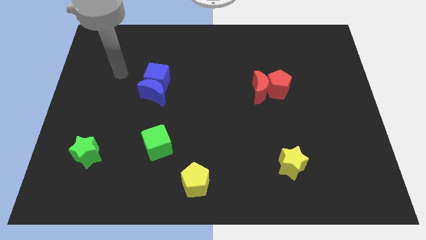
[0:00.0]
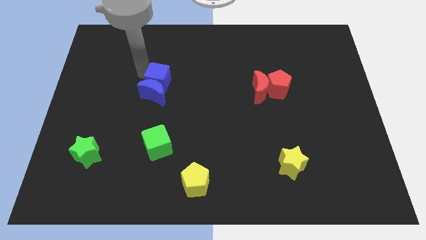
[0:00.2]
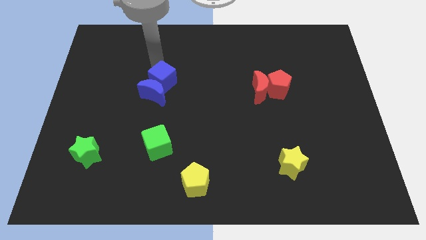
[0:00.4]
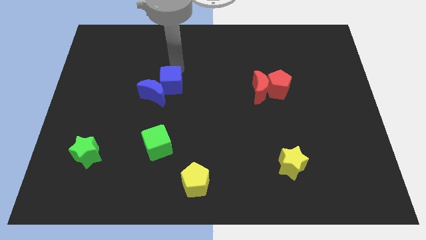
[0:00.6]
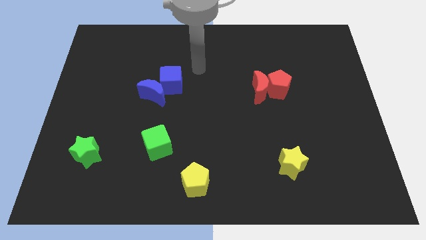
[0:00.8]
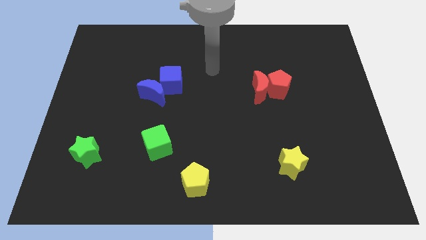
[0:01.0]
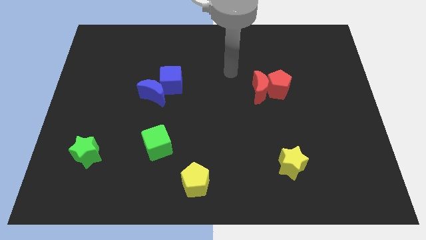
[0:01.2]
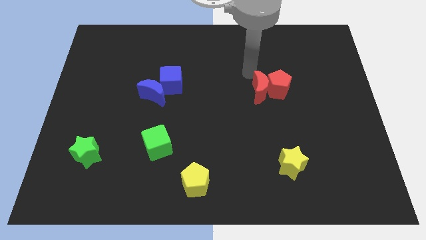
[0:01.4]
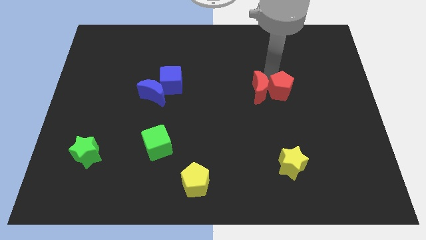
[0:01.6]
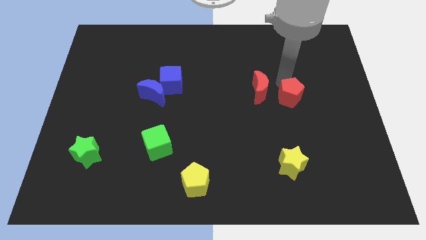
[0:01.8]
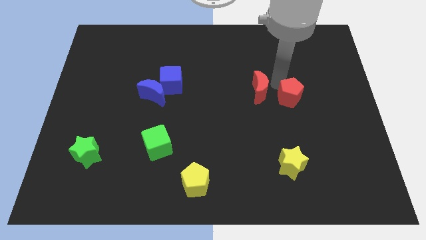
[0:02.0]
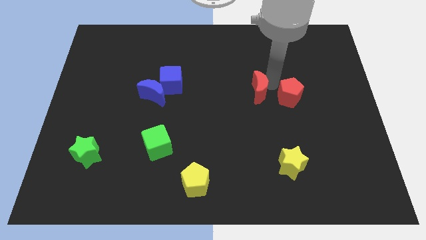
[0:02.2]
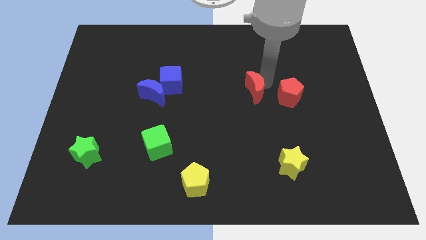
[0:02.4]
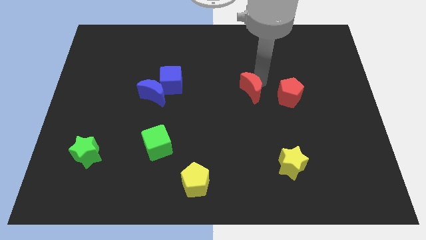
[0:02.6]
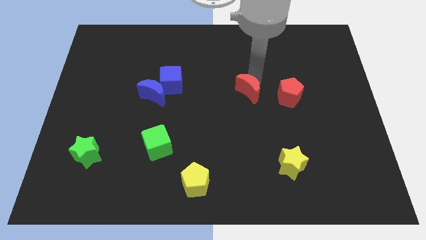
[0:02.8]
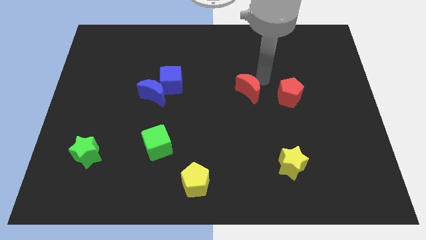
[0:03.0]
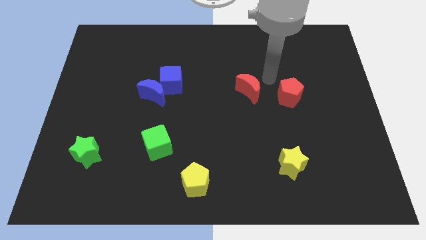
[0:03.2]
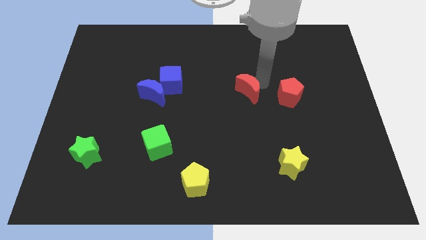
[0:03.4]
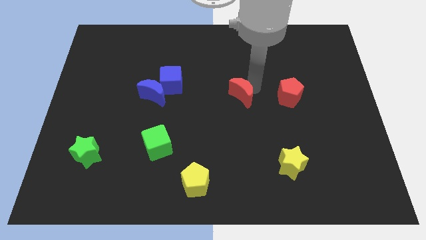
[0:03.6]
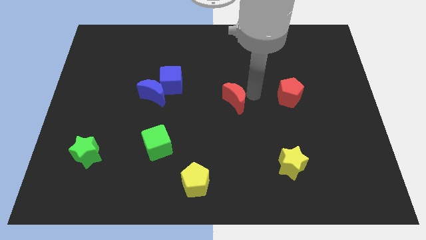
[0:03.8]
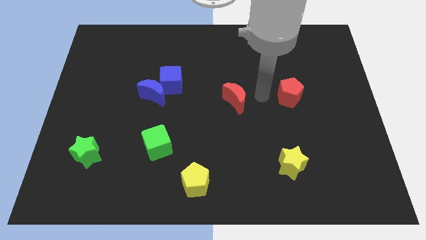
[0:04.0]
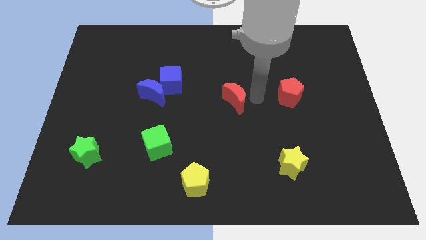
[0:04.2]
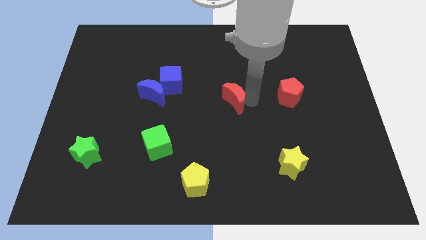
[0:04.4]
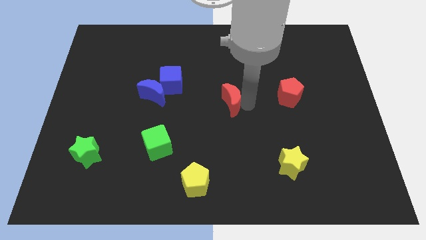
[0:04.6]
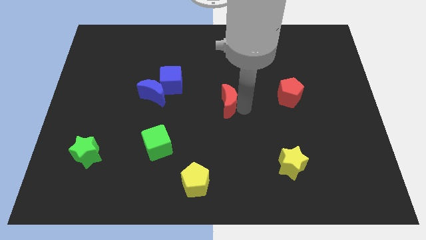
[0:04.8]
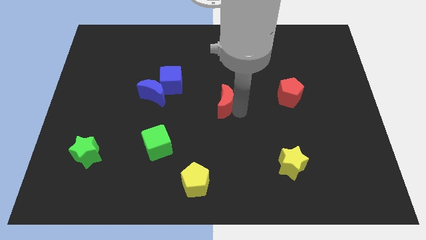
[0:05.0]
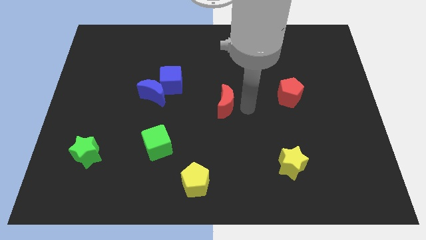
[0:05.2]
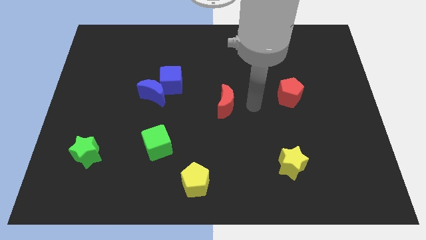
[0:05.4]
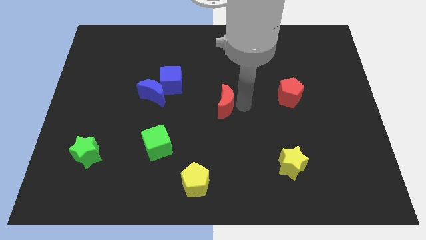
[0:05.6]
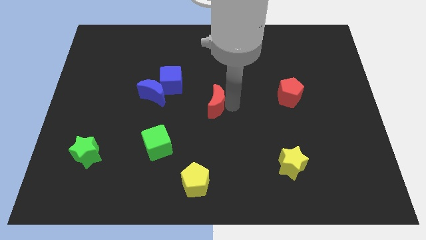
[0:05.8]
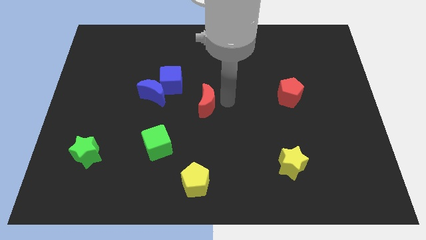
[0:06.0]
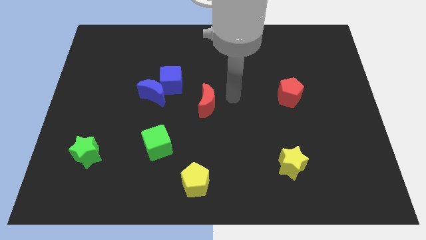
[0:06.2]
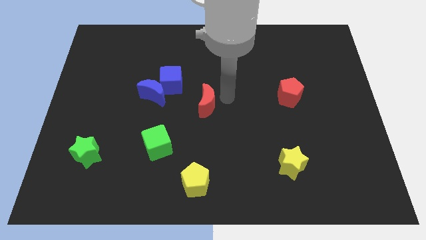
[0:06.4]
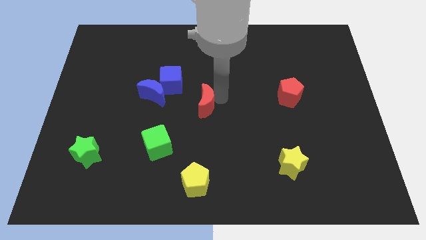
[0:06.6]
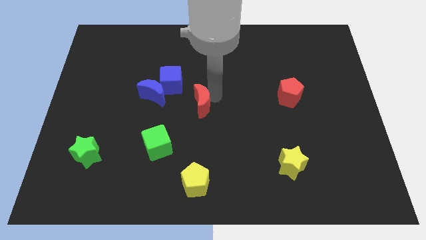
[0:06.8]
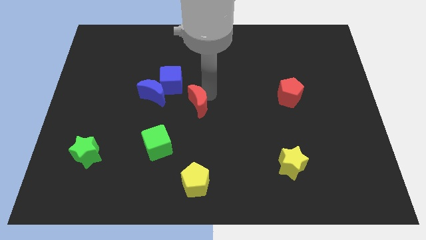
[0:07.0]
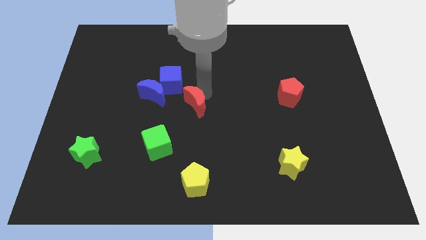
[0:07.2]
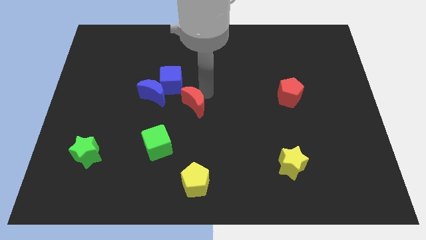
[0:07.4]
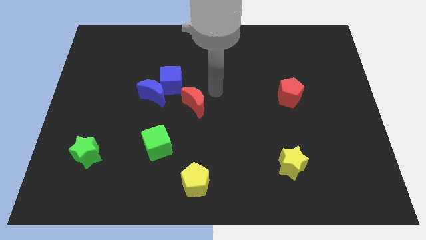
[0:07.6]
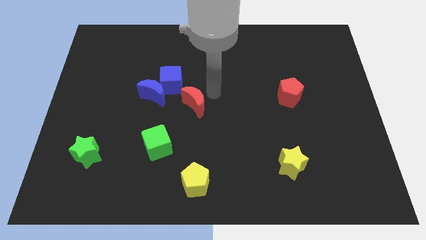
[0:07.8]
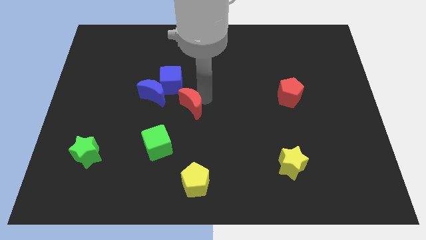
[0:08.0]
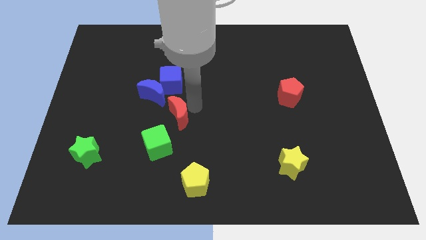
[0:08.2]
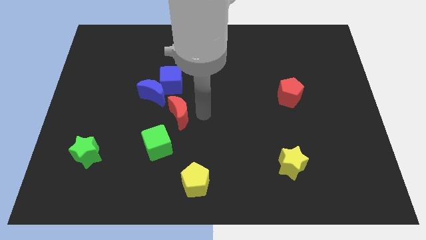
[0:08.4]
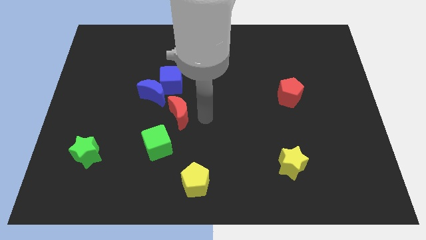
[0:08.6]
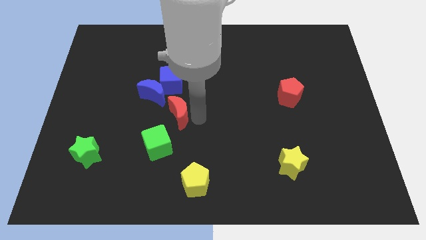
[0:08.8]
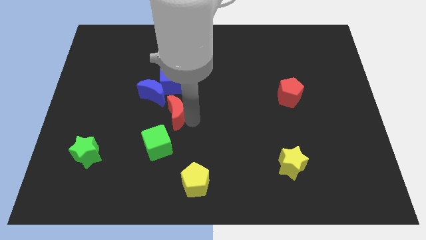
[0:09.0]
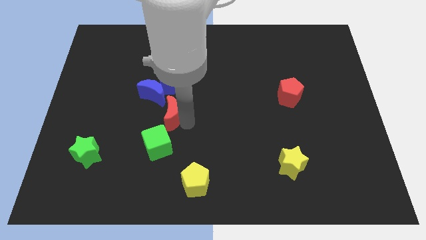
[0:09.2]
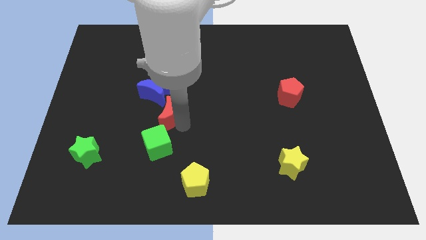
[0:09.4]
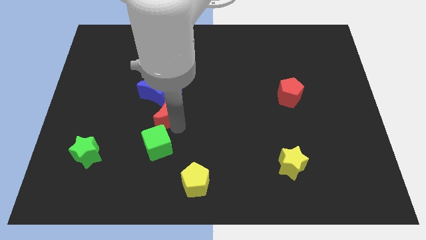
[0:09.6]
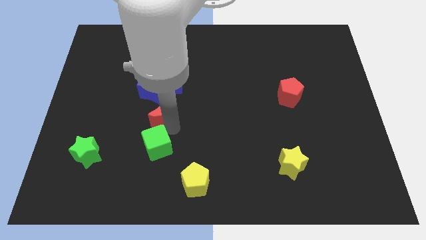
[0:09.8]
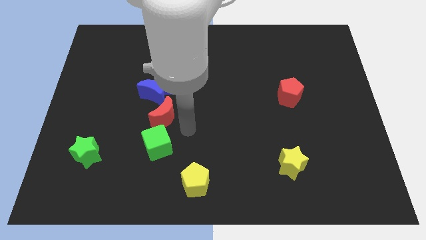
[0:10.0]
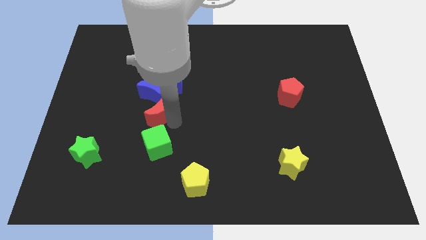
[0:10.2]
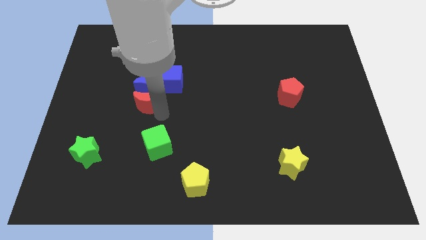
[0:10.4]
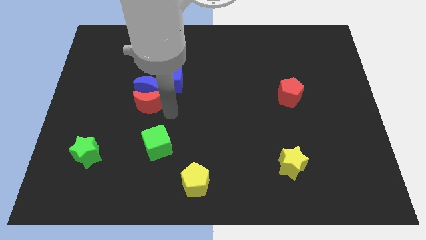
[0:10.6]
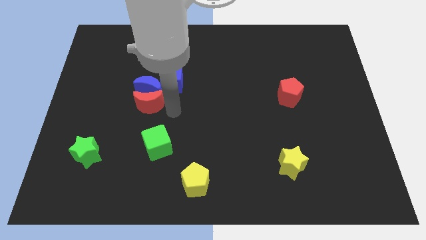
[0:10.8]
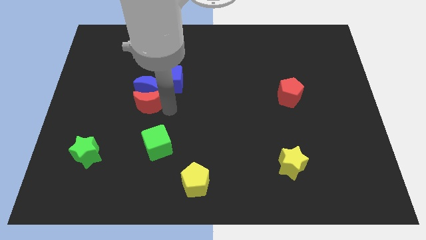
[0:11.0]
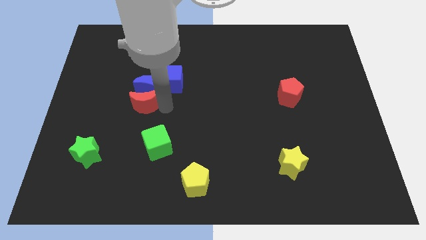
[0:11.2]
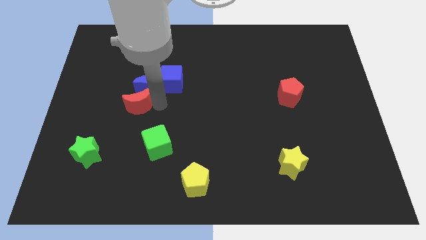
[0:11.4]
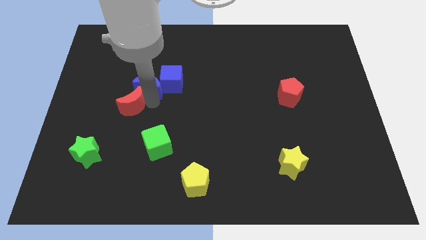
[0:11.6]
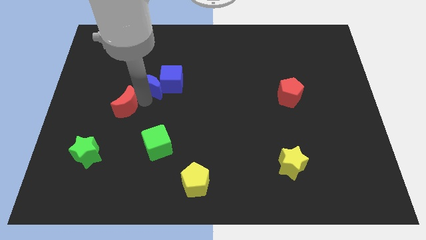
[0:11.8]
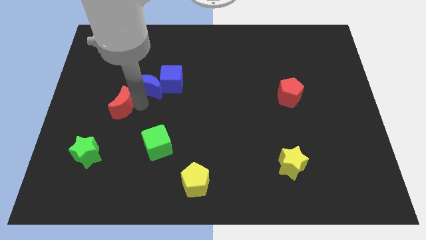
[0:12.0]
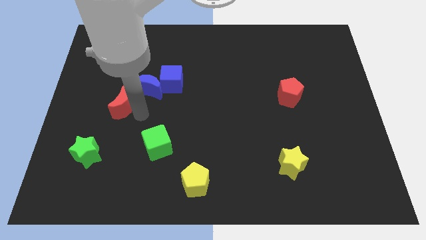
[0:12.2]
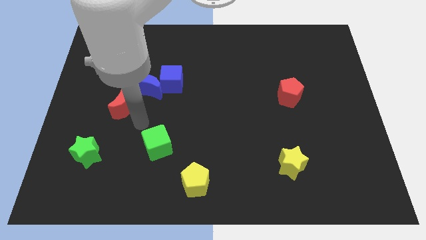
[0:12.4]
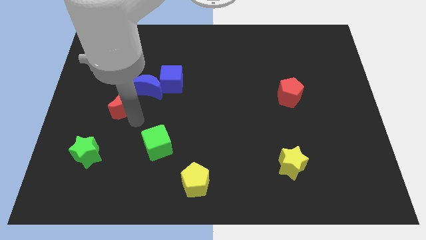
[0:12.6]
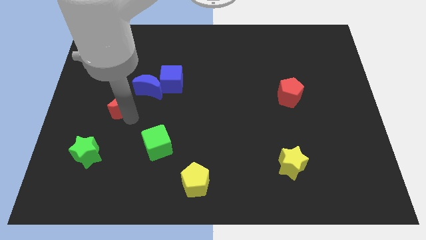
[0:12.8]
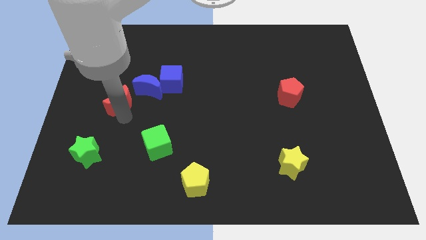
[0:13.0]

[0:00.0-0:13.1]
push the red moon to the left side of the blue moon
